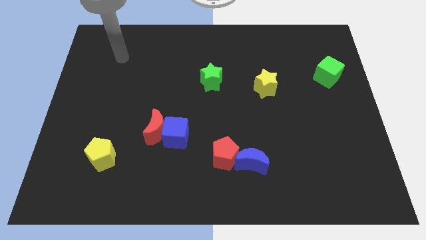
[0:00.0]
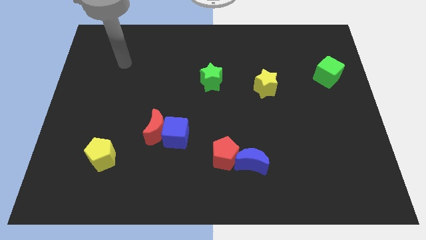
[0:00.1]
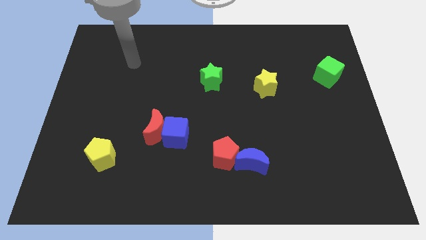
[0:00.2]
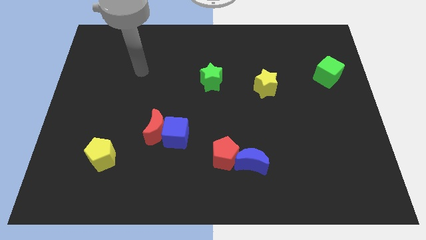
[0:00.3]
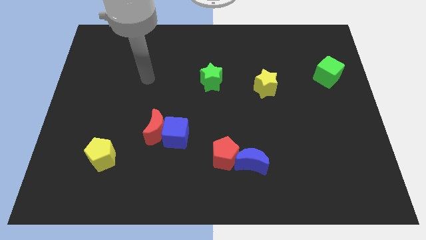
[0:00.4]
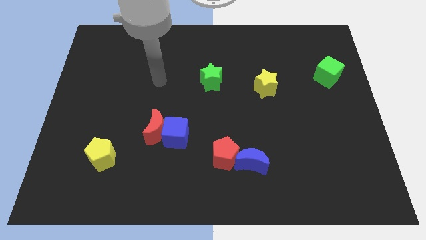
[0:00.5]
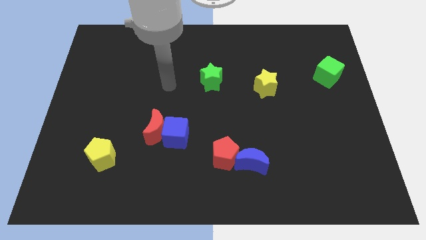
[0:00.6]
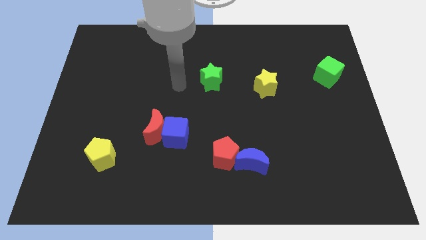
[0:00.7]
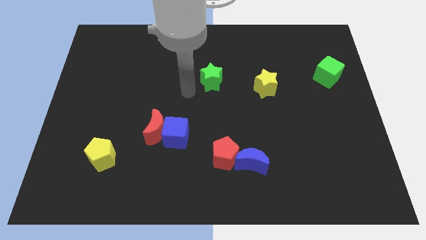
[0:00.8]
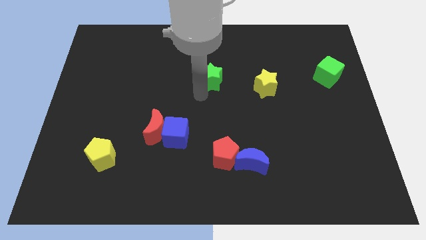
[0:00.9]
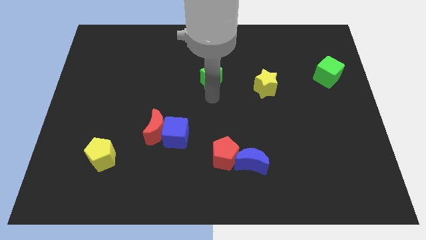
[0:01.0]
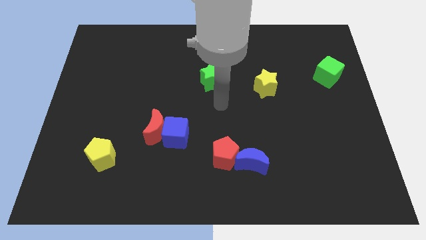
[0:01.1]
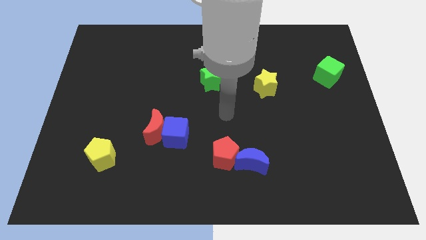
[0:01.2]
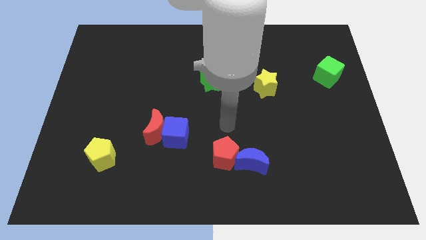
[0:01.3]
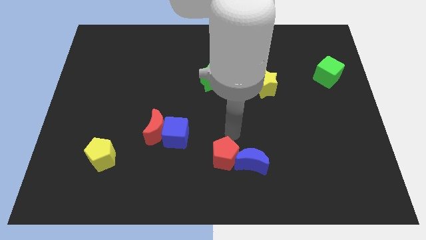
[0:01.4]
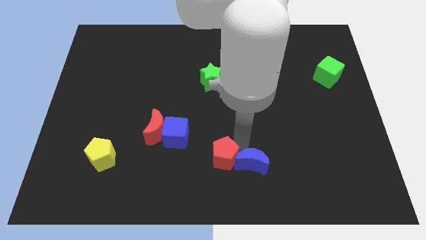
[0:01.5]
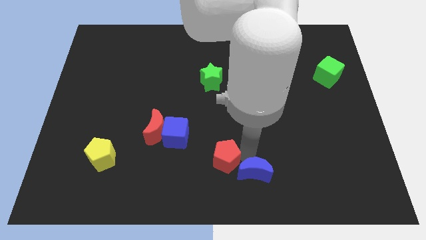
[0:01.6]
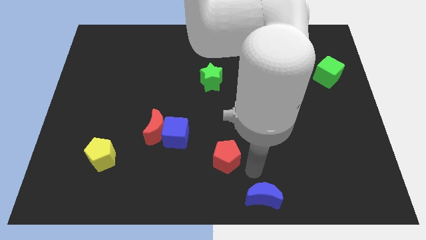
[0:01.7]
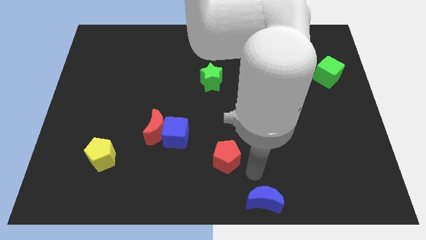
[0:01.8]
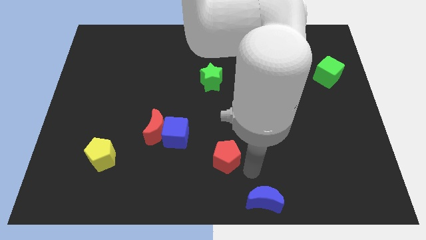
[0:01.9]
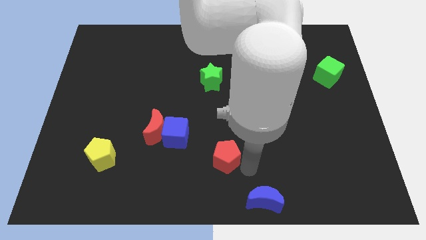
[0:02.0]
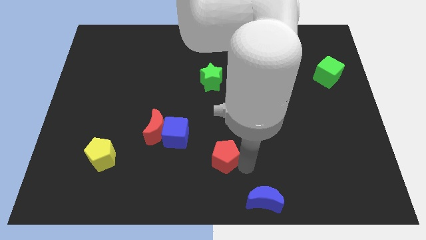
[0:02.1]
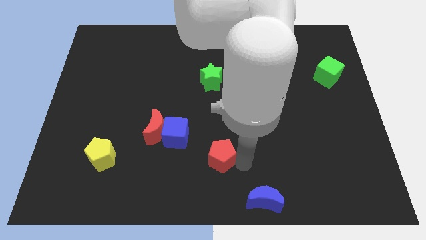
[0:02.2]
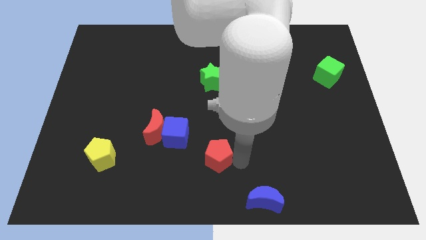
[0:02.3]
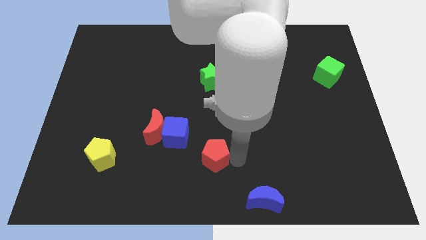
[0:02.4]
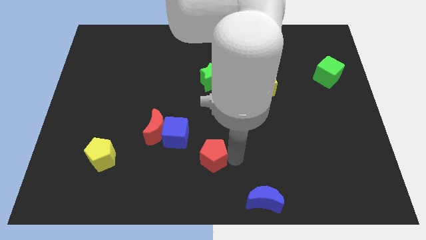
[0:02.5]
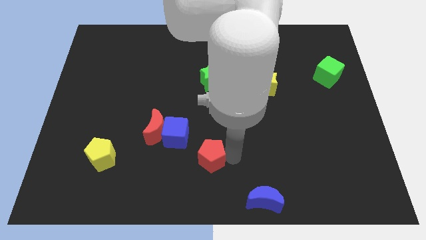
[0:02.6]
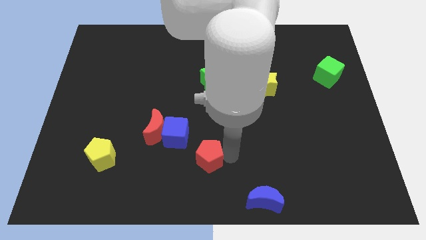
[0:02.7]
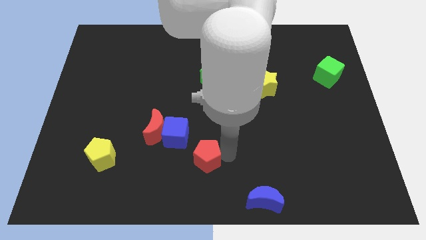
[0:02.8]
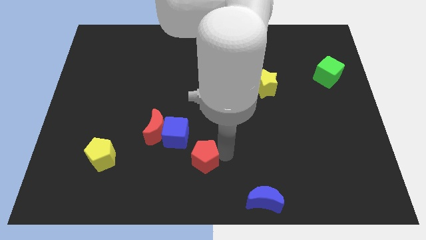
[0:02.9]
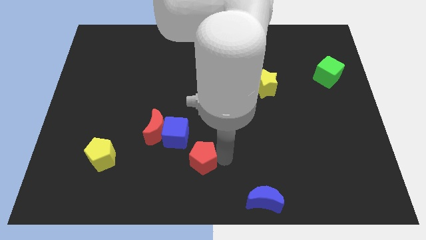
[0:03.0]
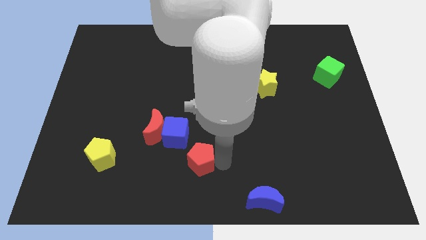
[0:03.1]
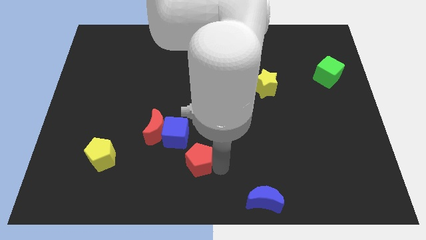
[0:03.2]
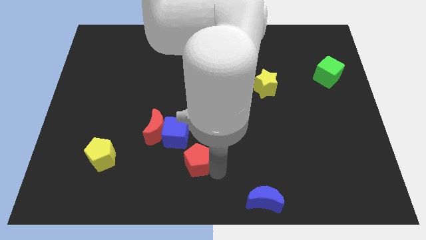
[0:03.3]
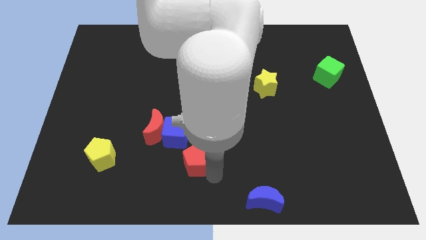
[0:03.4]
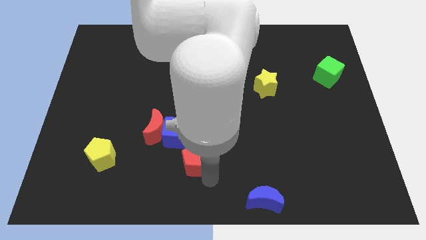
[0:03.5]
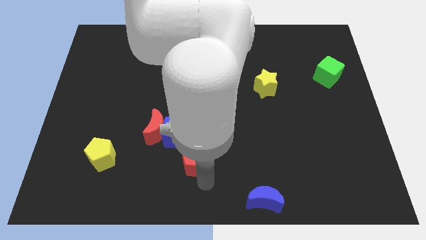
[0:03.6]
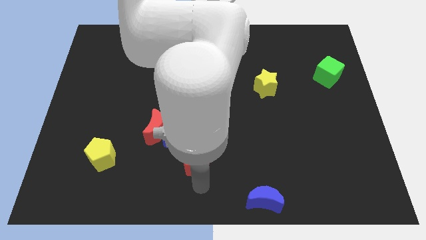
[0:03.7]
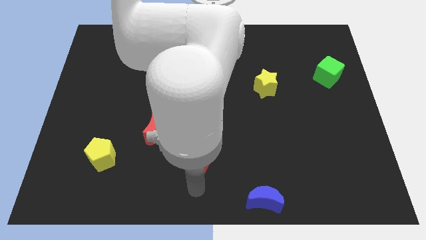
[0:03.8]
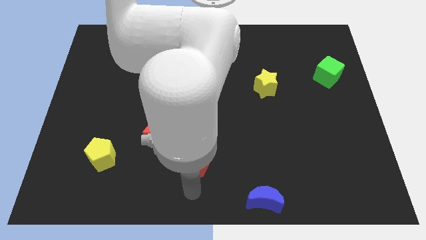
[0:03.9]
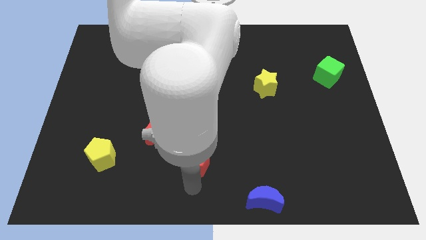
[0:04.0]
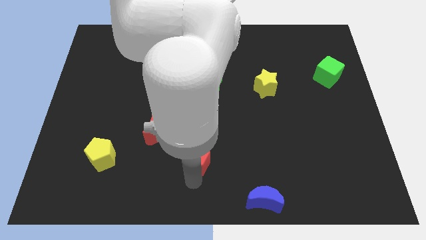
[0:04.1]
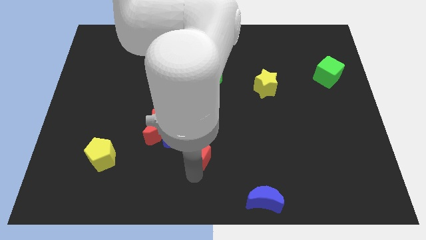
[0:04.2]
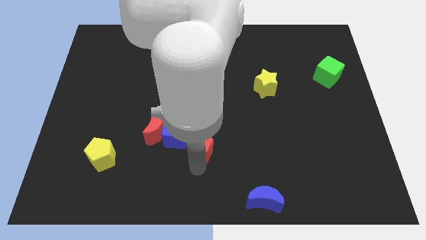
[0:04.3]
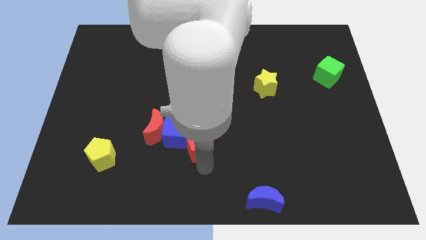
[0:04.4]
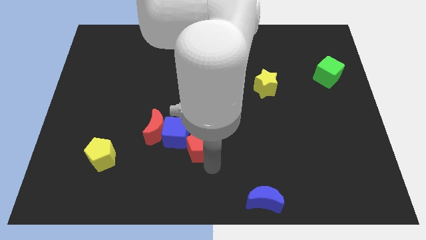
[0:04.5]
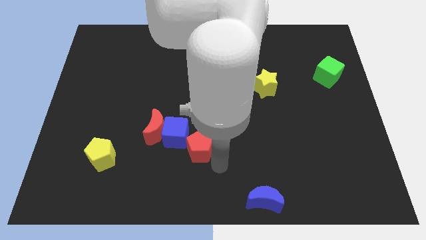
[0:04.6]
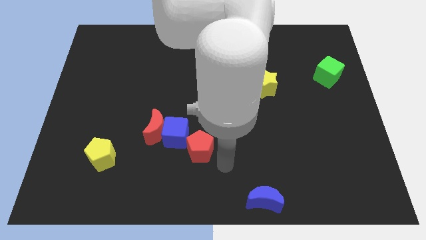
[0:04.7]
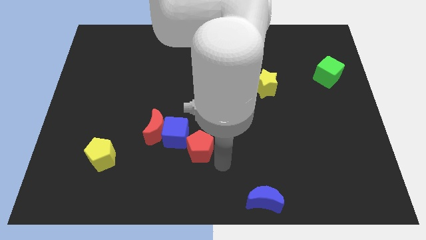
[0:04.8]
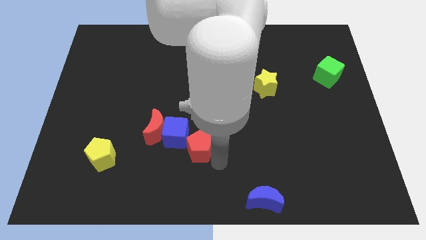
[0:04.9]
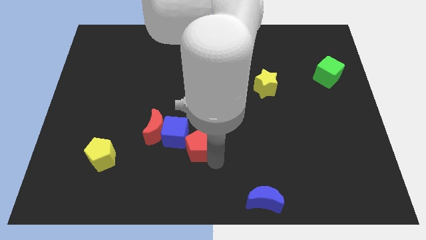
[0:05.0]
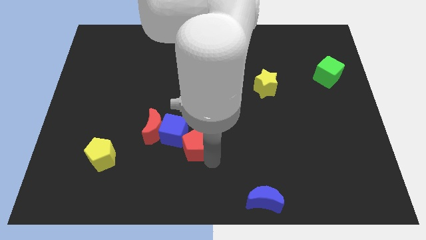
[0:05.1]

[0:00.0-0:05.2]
move the red pentagon to the blue cube

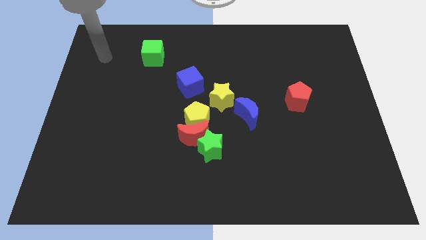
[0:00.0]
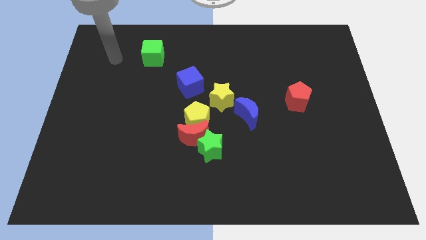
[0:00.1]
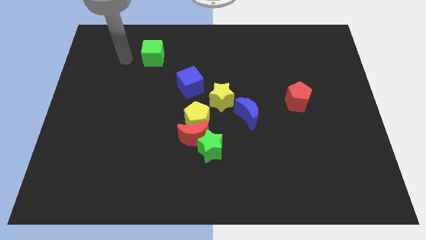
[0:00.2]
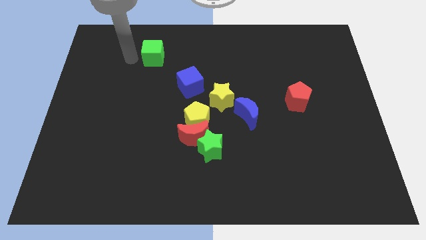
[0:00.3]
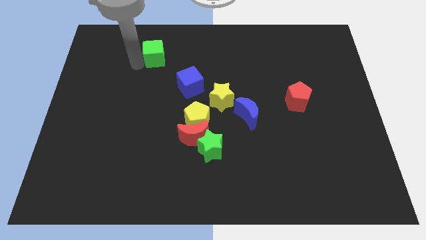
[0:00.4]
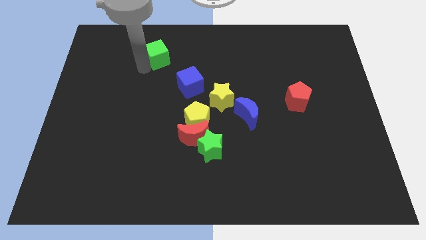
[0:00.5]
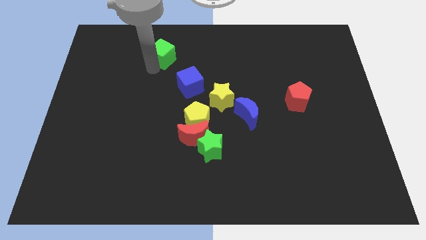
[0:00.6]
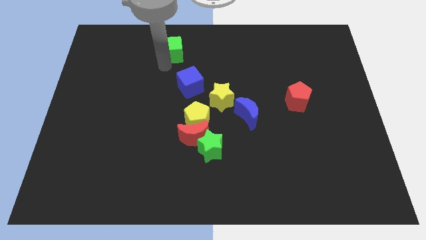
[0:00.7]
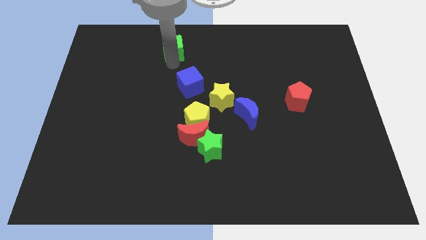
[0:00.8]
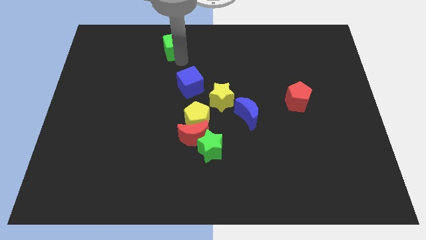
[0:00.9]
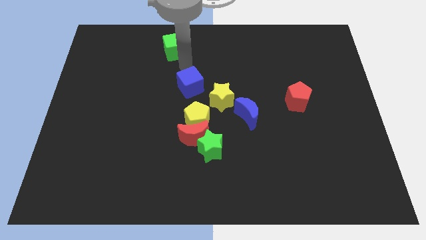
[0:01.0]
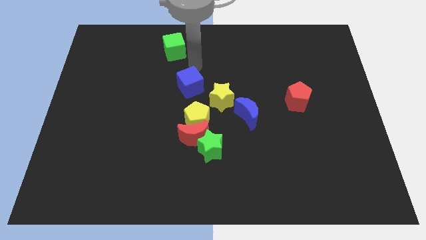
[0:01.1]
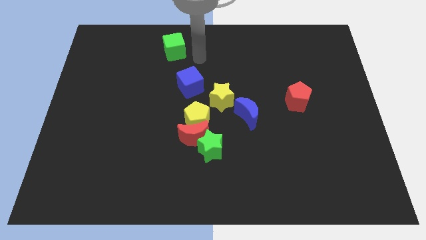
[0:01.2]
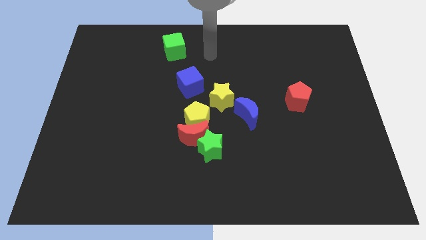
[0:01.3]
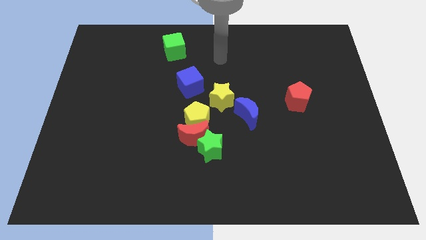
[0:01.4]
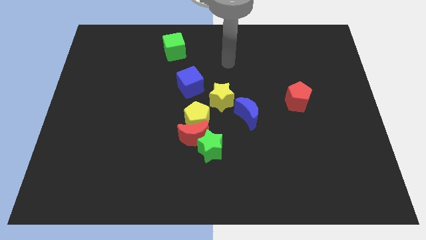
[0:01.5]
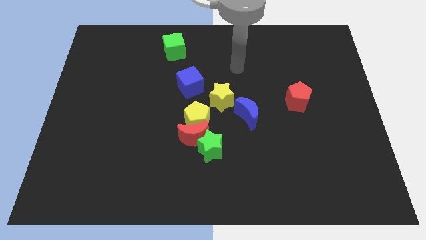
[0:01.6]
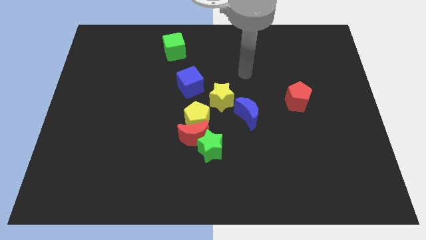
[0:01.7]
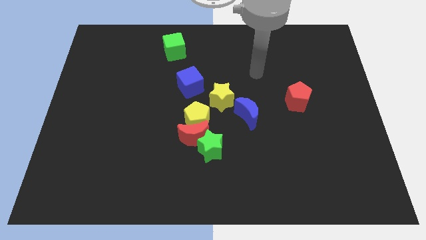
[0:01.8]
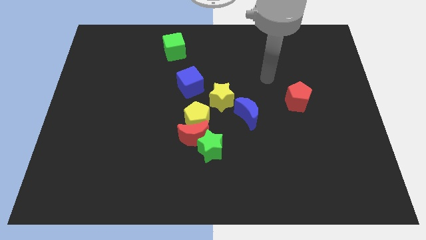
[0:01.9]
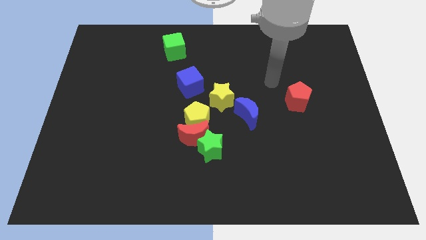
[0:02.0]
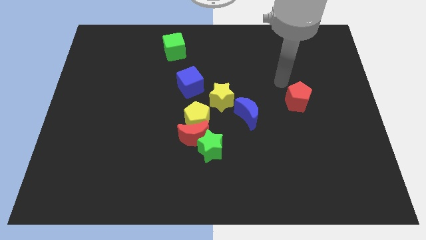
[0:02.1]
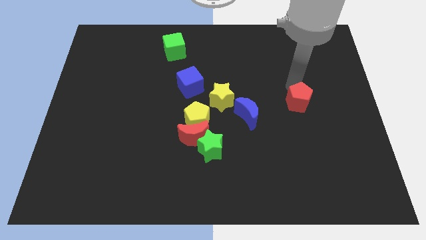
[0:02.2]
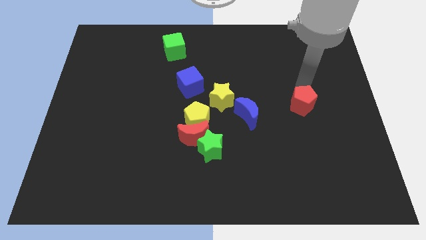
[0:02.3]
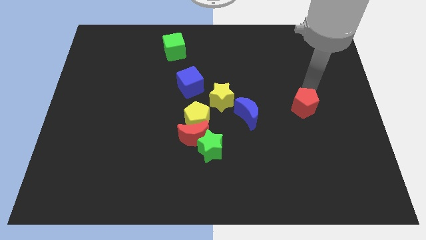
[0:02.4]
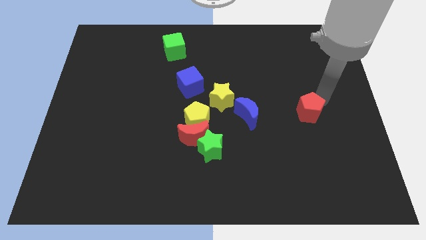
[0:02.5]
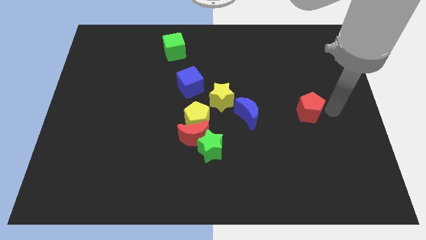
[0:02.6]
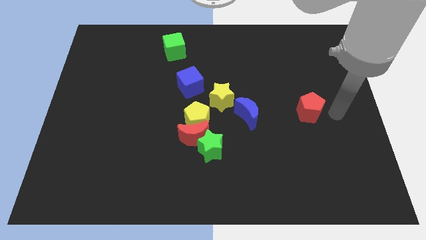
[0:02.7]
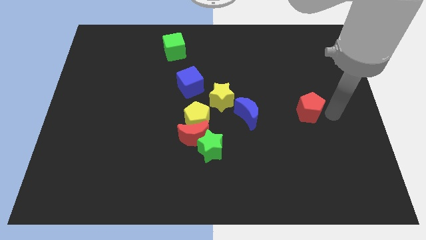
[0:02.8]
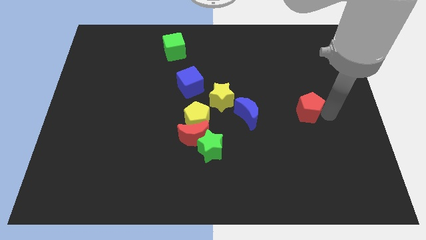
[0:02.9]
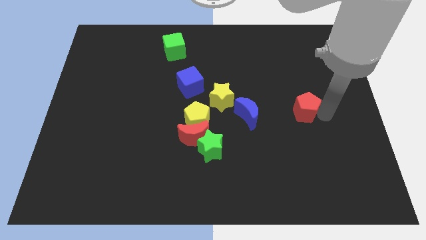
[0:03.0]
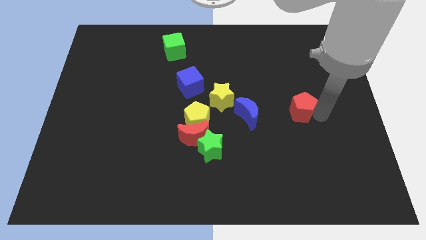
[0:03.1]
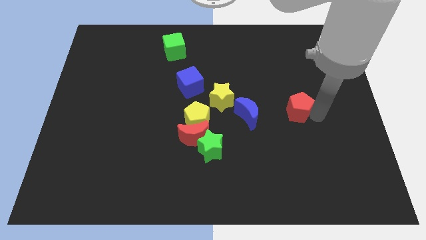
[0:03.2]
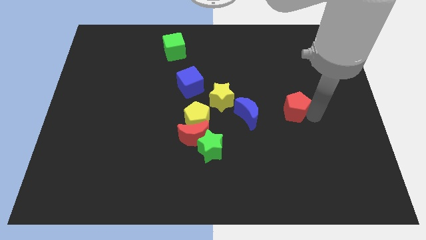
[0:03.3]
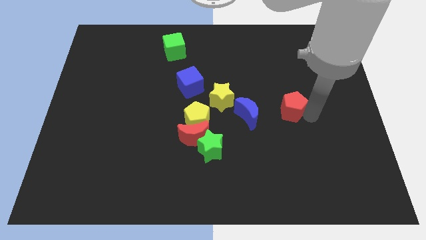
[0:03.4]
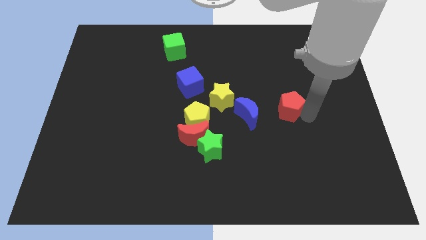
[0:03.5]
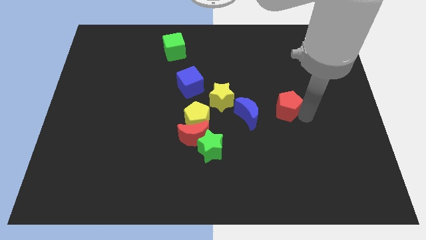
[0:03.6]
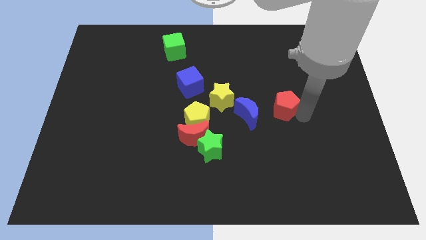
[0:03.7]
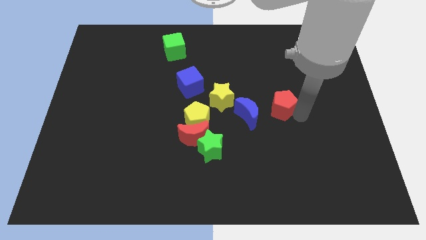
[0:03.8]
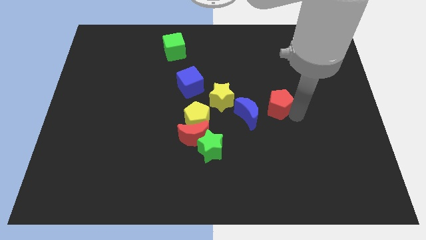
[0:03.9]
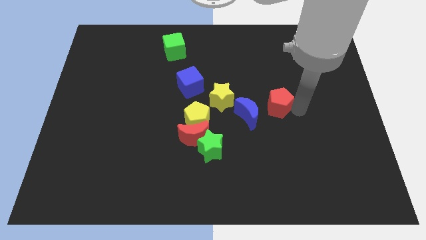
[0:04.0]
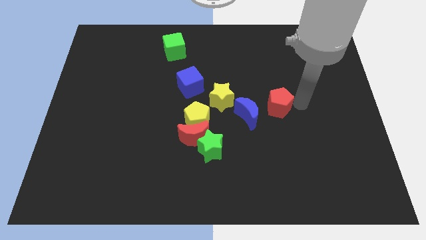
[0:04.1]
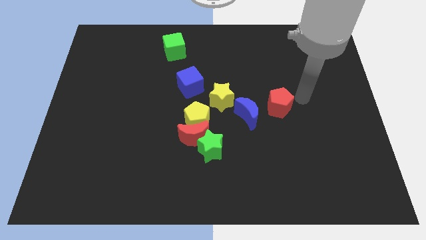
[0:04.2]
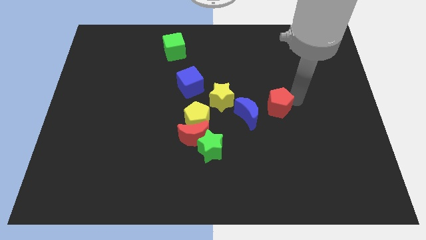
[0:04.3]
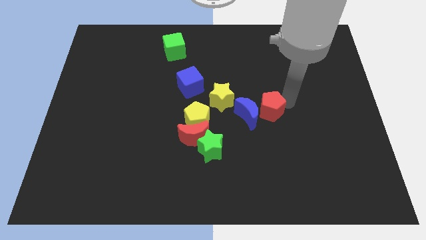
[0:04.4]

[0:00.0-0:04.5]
push the red pentagon close to the blue moon
